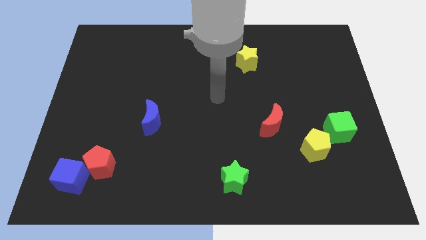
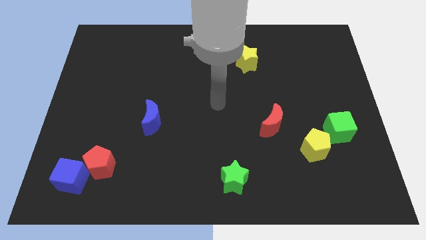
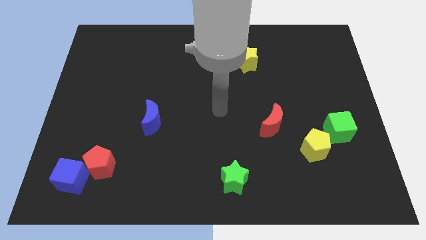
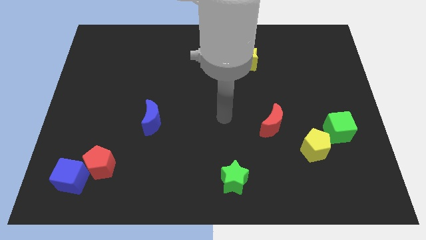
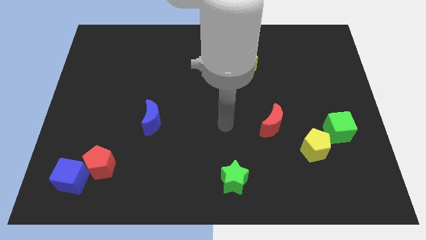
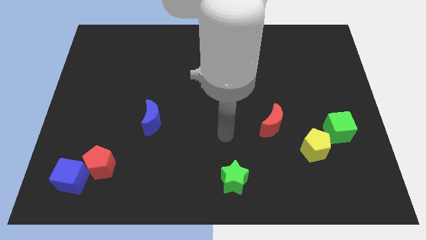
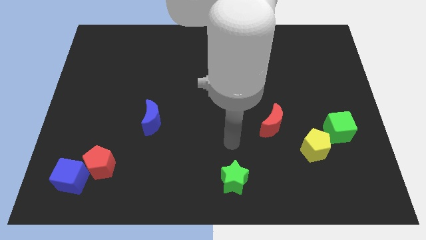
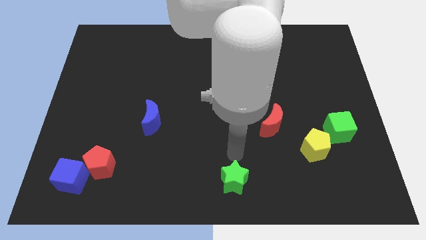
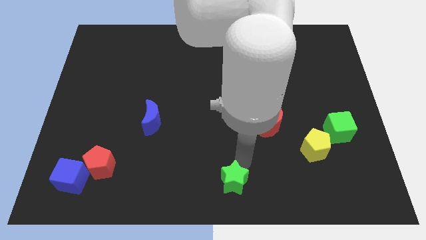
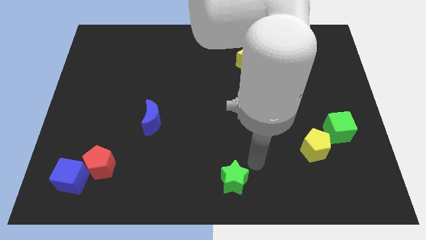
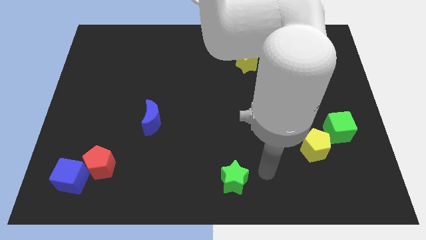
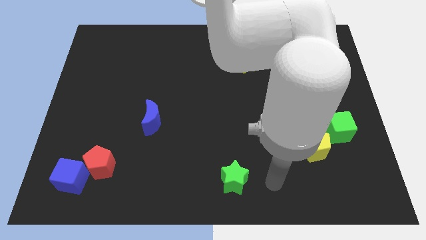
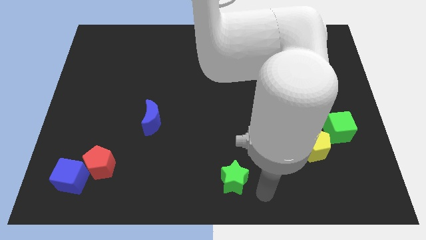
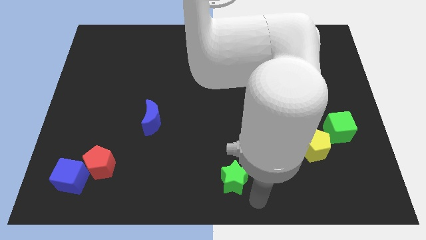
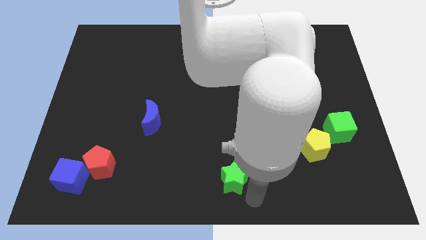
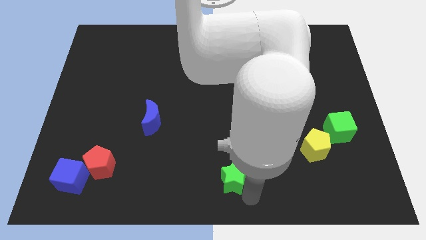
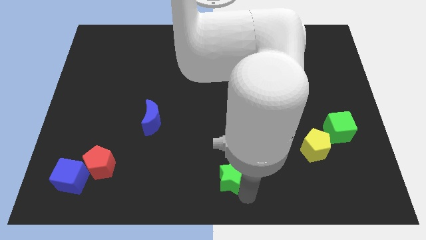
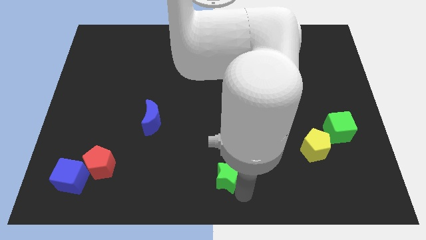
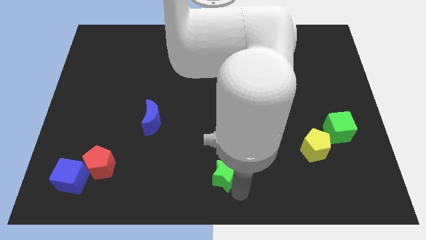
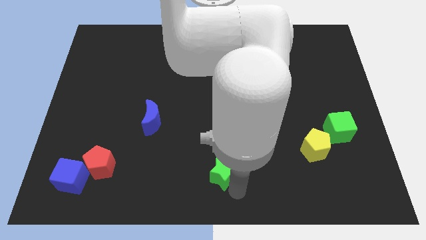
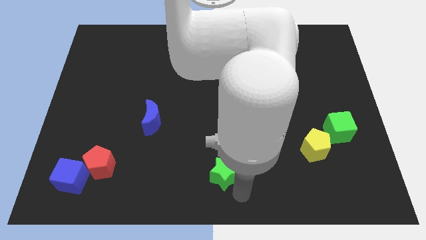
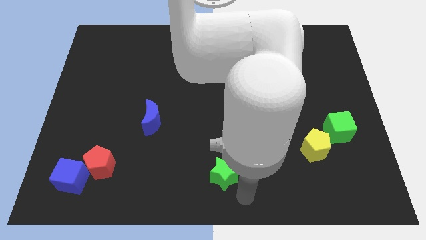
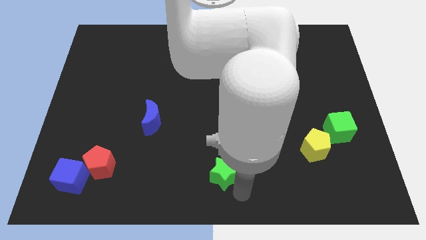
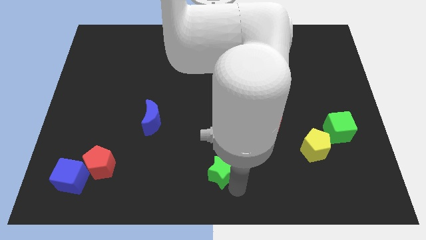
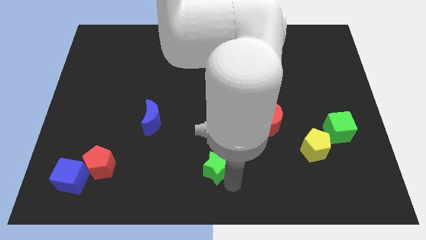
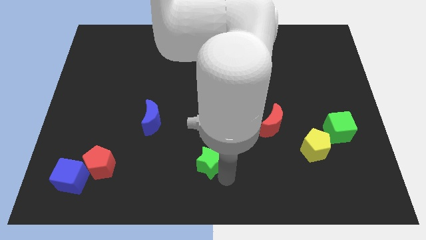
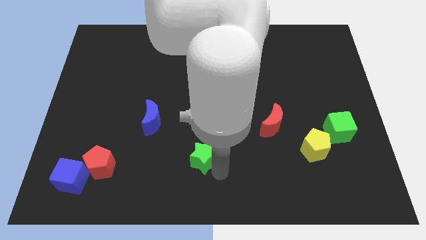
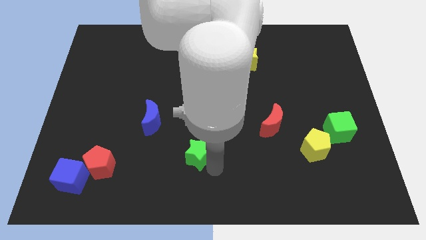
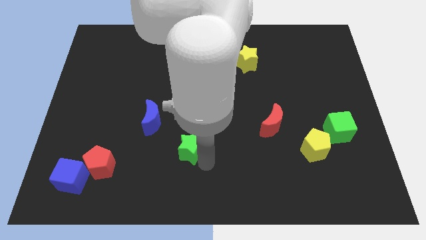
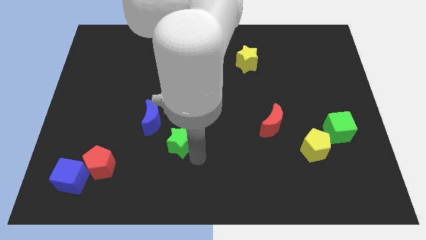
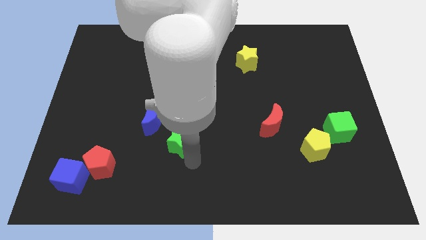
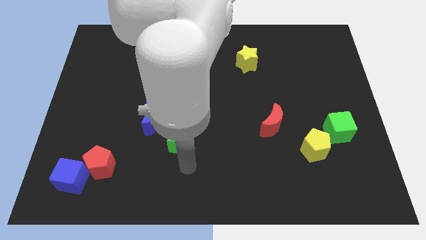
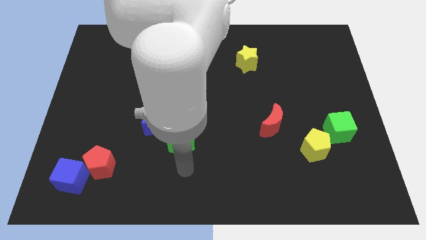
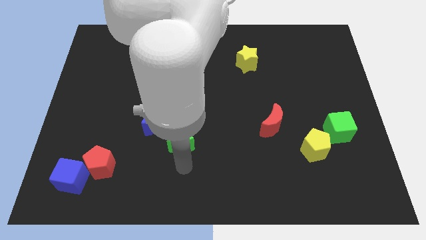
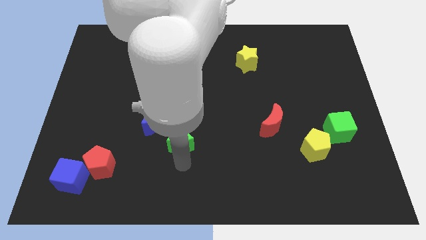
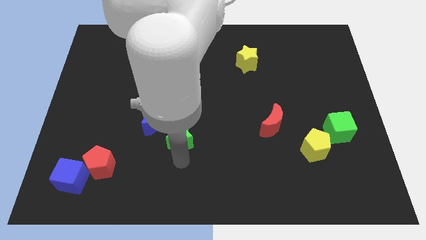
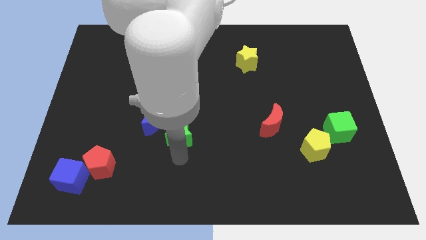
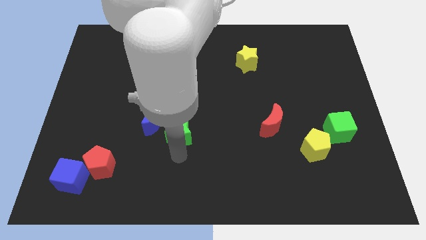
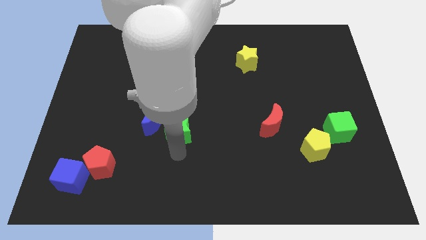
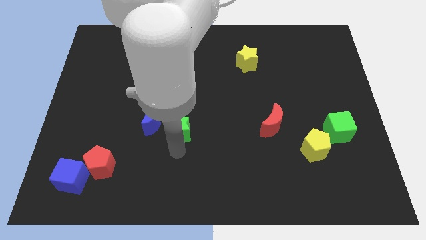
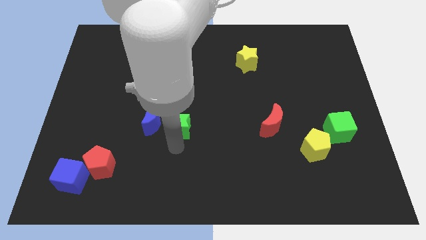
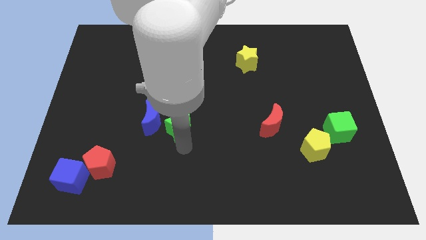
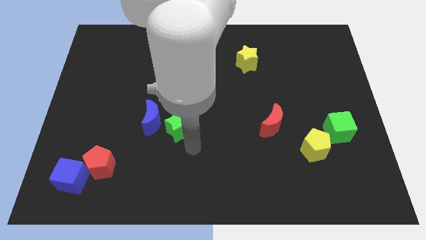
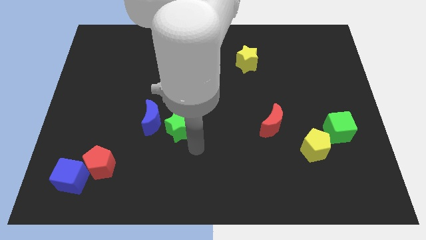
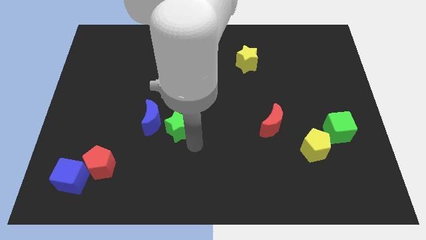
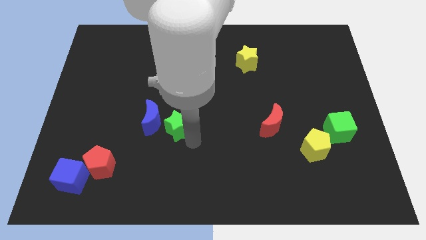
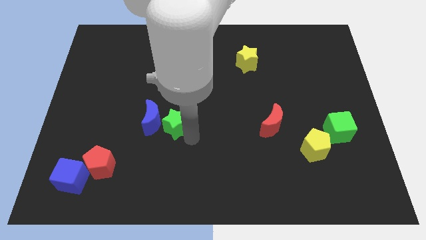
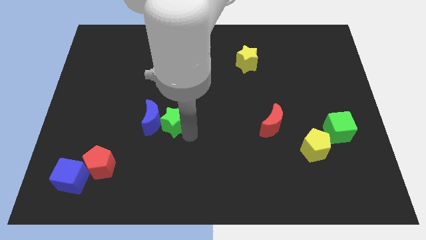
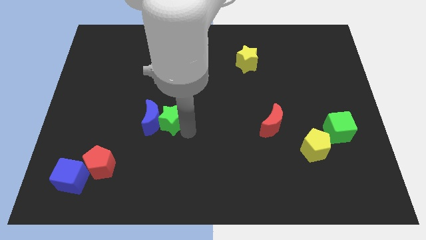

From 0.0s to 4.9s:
move the green star up and to the left diagonally

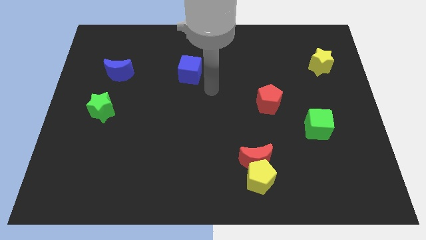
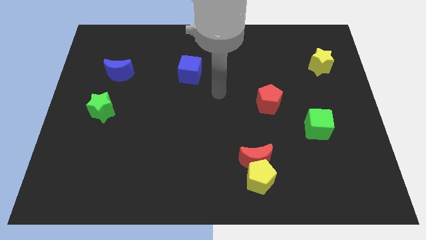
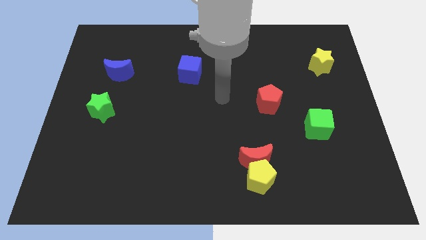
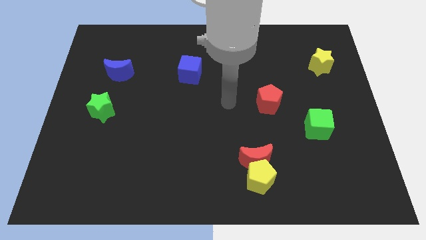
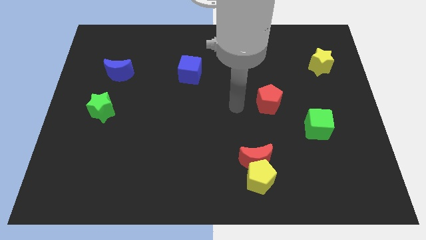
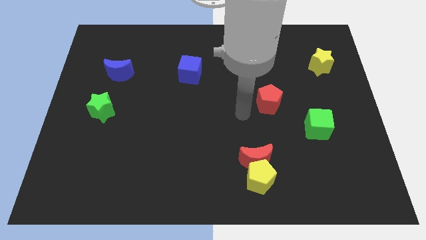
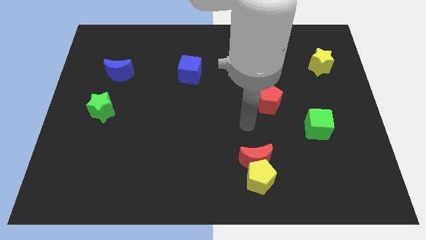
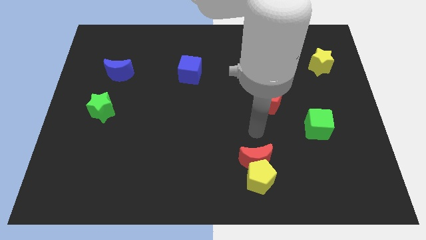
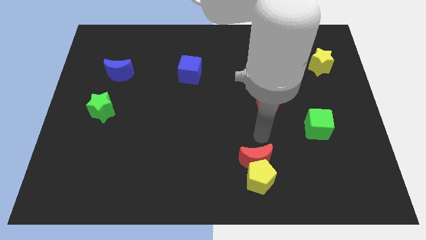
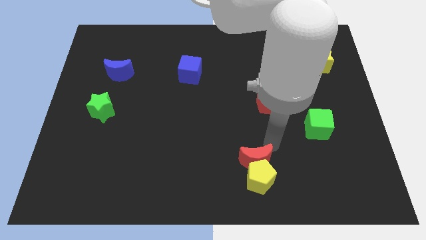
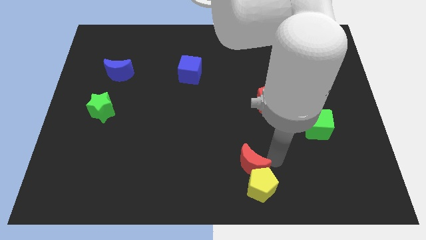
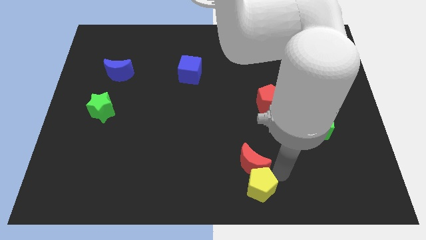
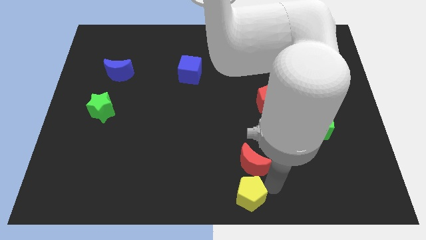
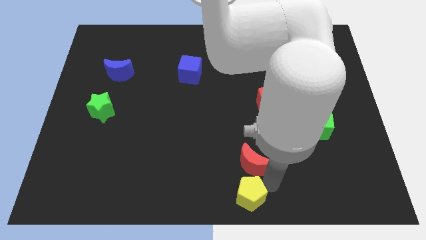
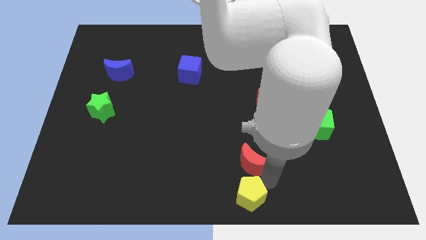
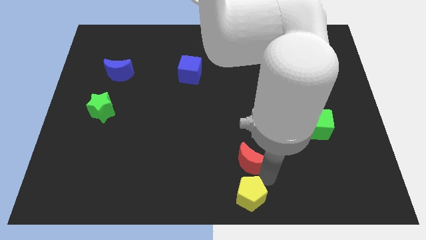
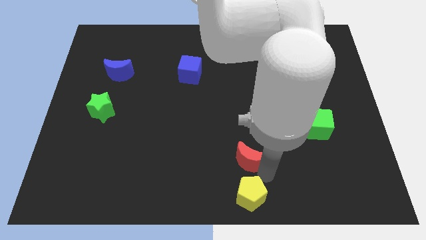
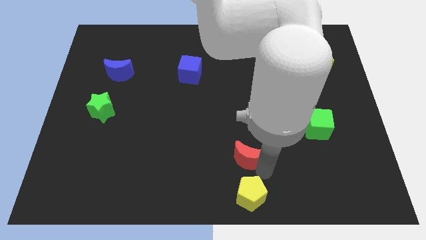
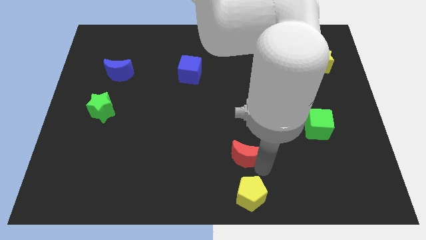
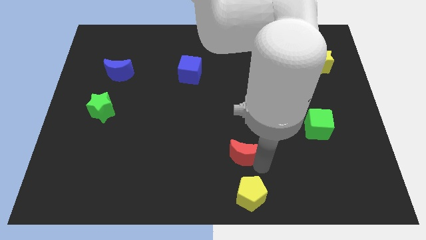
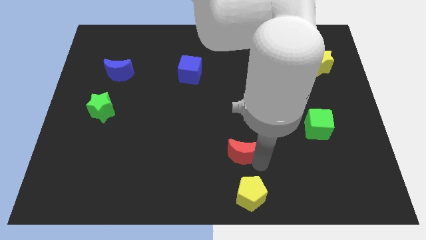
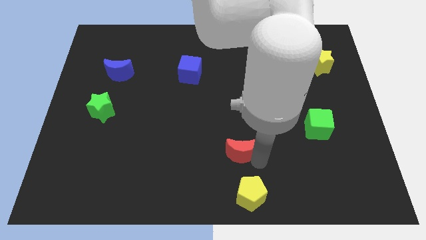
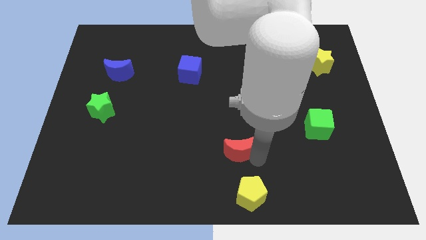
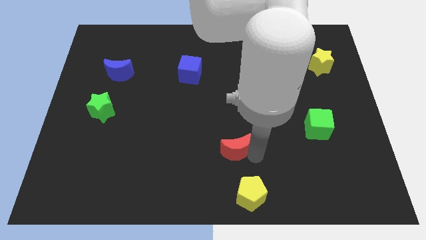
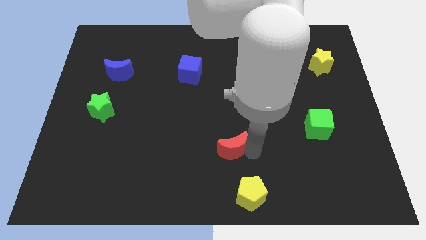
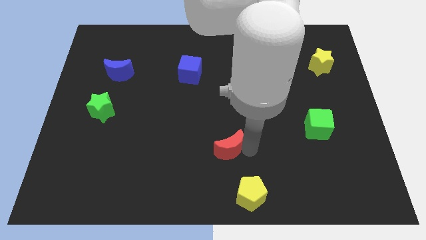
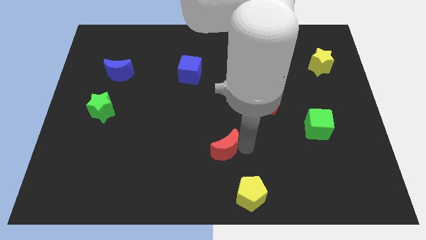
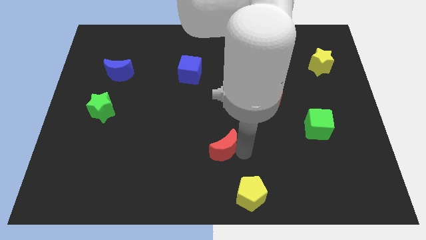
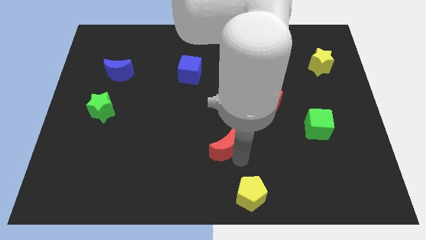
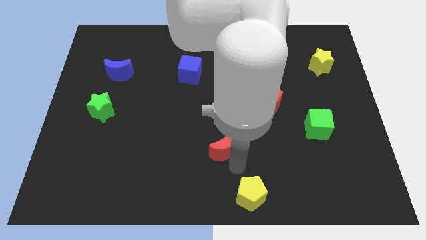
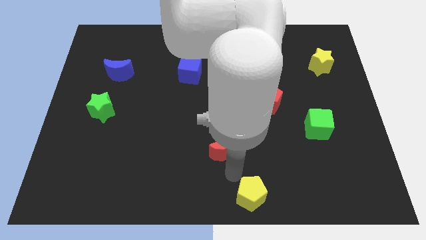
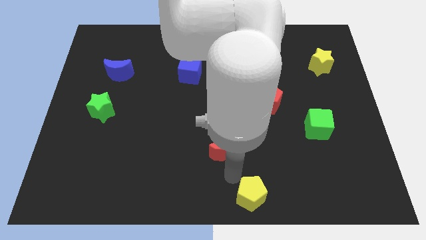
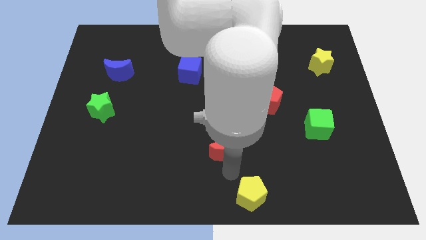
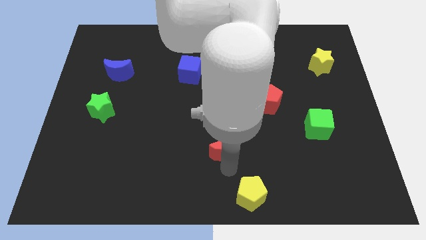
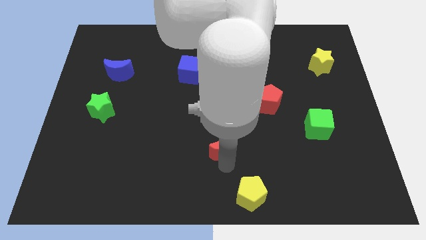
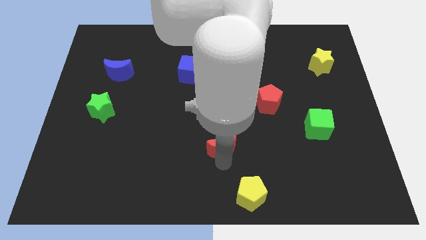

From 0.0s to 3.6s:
slide the red moon a bit upwards and to the left diagonally
